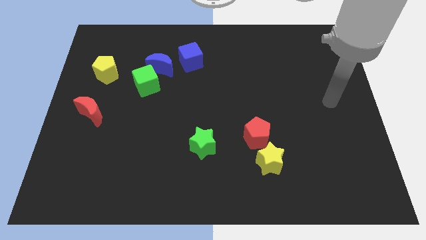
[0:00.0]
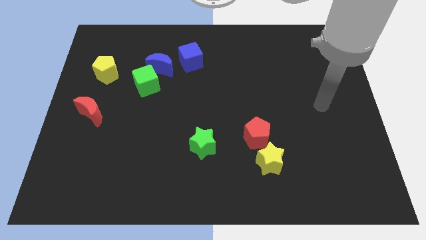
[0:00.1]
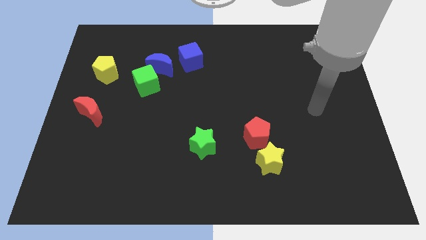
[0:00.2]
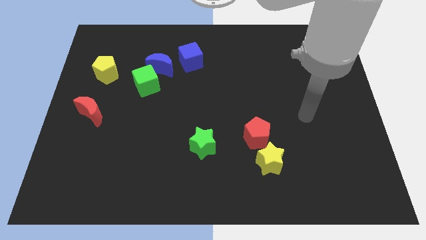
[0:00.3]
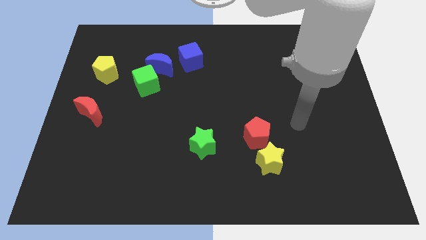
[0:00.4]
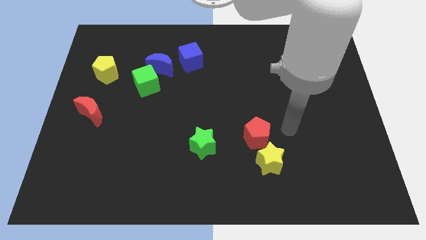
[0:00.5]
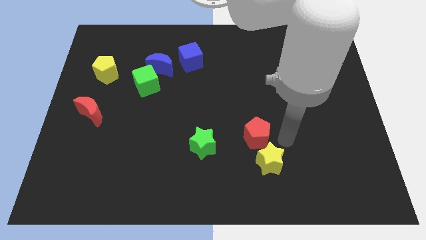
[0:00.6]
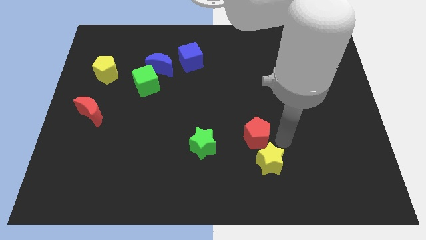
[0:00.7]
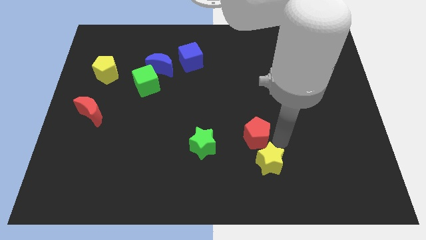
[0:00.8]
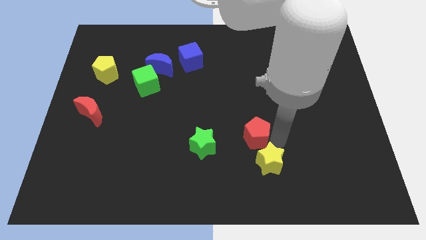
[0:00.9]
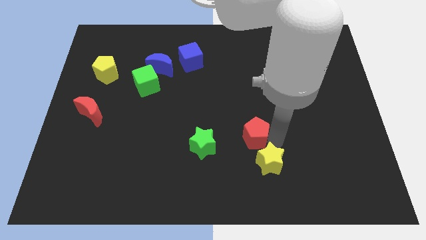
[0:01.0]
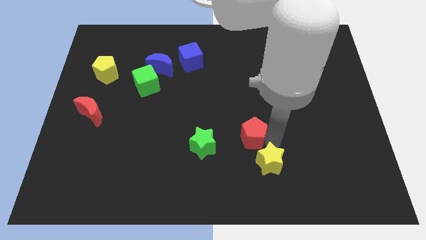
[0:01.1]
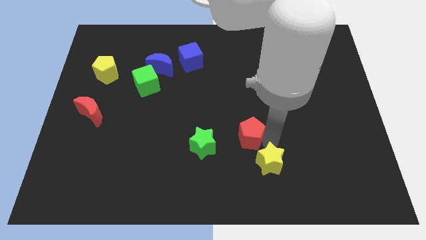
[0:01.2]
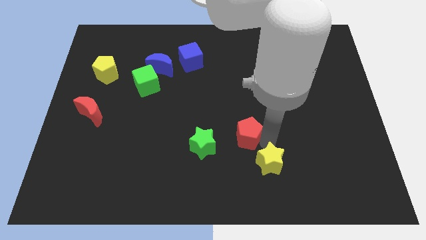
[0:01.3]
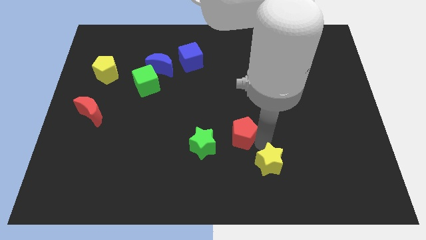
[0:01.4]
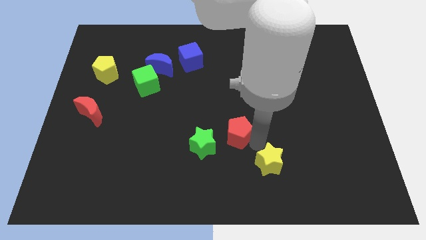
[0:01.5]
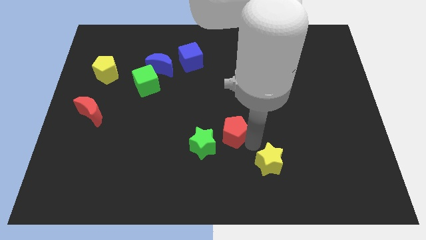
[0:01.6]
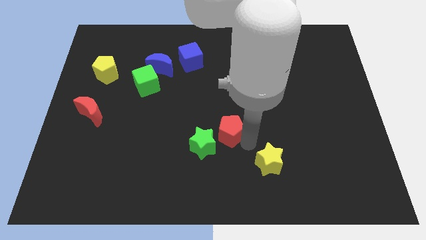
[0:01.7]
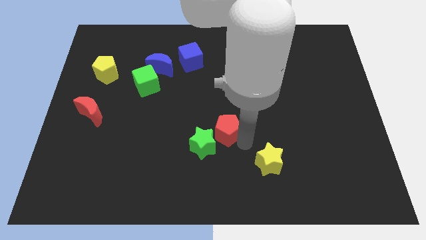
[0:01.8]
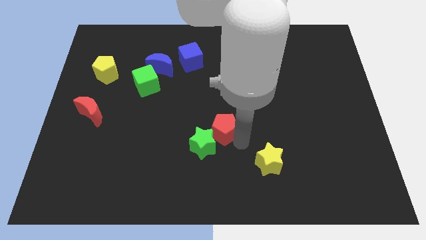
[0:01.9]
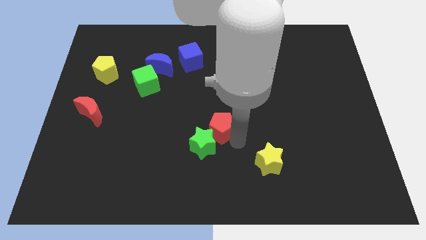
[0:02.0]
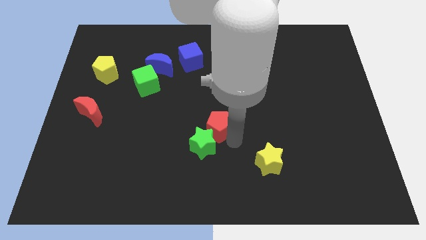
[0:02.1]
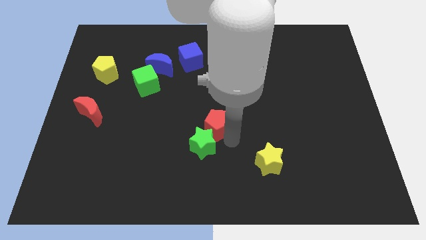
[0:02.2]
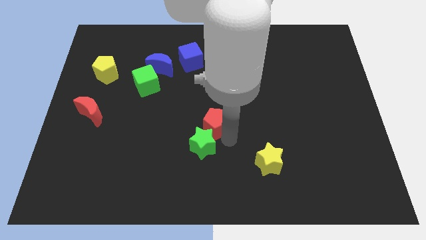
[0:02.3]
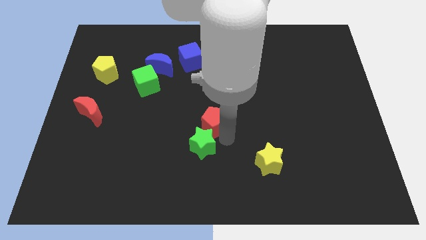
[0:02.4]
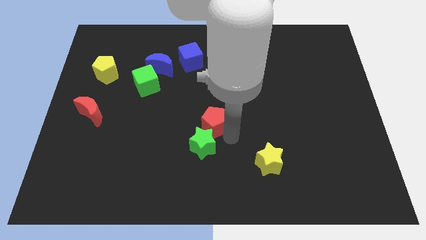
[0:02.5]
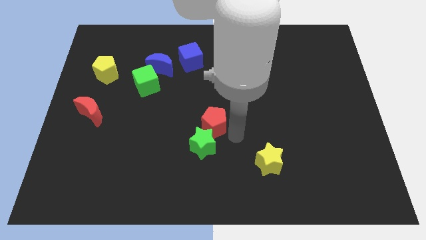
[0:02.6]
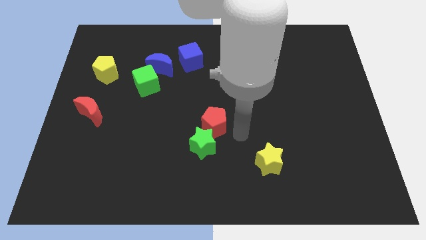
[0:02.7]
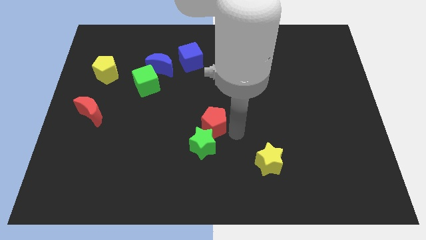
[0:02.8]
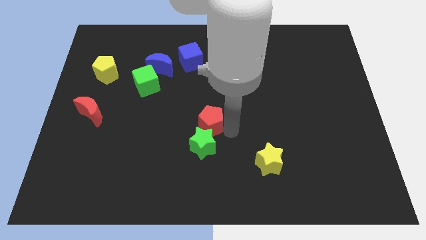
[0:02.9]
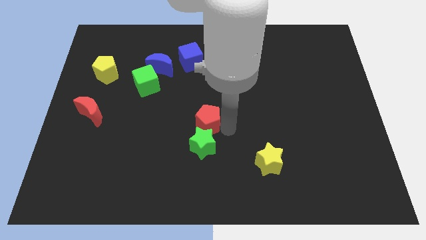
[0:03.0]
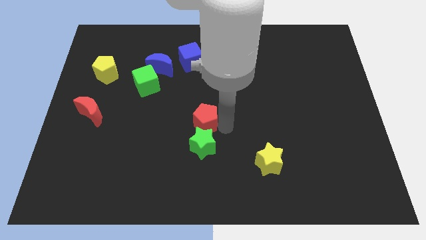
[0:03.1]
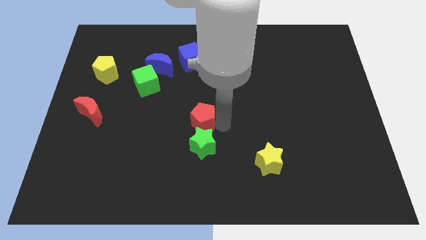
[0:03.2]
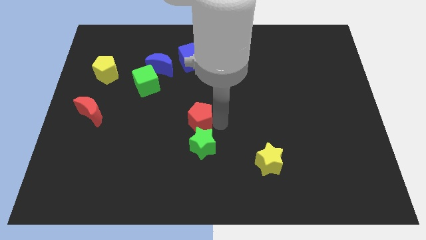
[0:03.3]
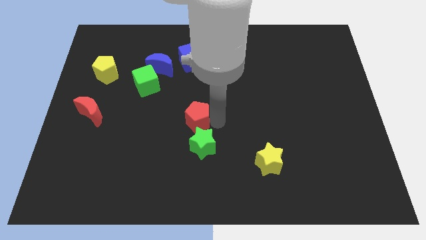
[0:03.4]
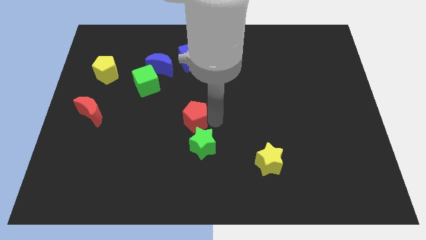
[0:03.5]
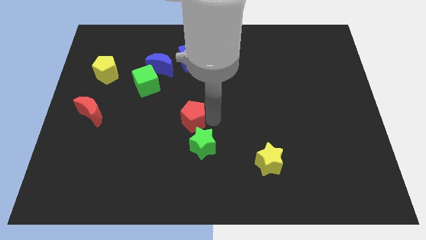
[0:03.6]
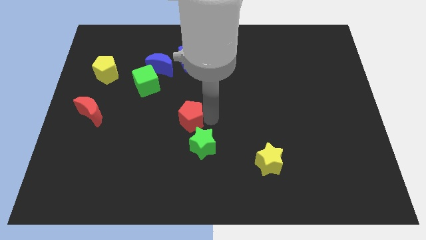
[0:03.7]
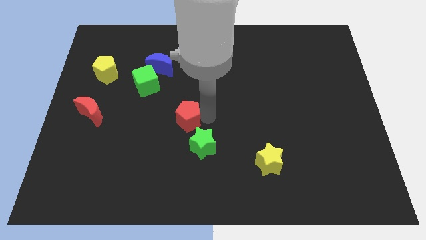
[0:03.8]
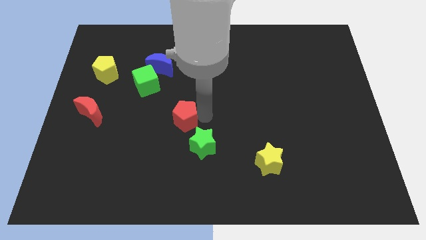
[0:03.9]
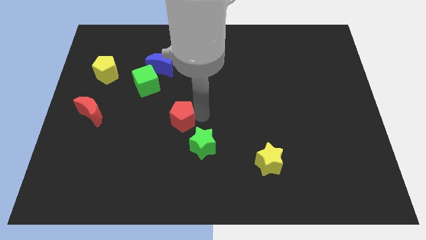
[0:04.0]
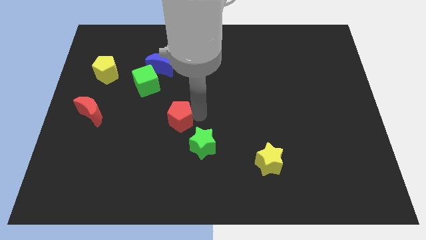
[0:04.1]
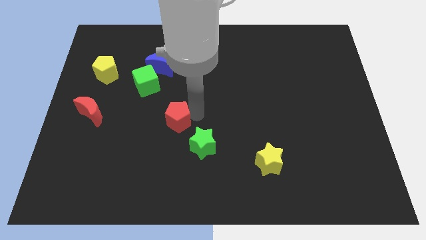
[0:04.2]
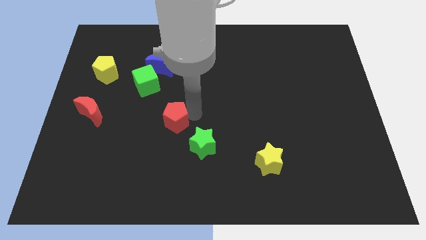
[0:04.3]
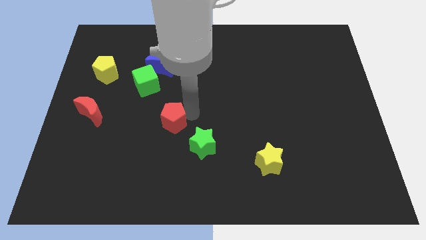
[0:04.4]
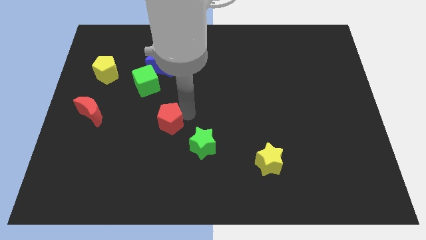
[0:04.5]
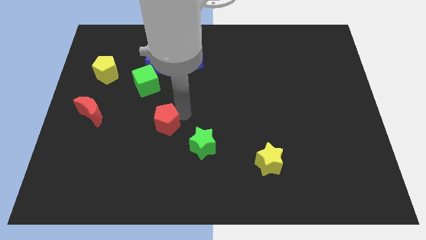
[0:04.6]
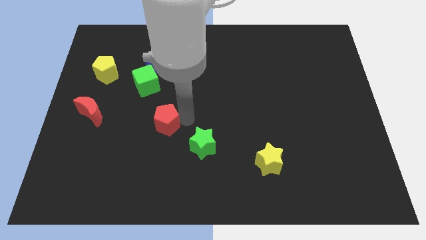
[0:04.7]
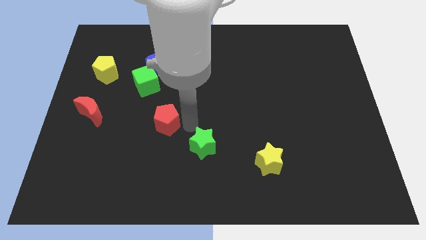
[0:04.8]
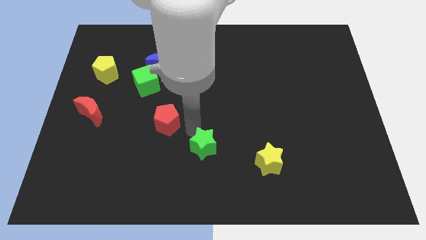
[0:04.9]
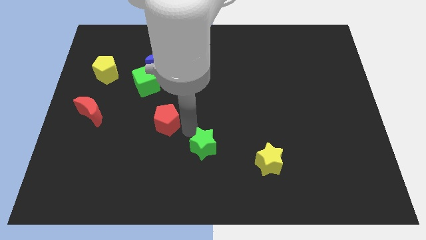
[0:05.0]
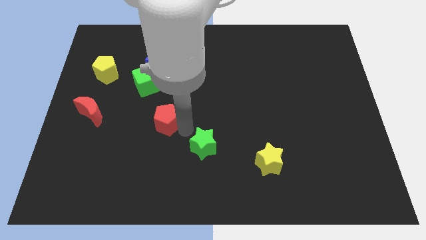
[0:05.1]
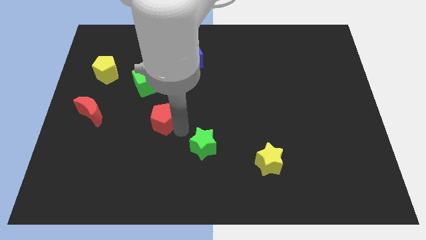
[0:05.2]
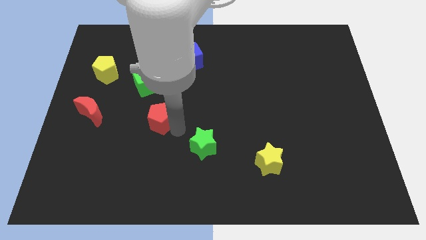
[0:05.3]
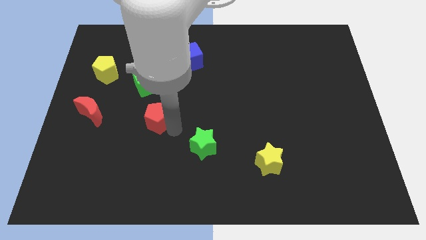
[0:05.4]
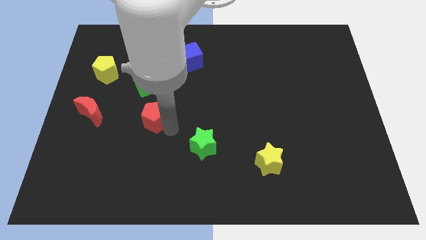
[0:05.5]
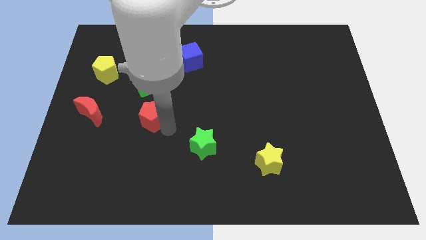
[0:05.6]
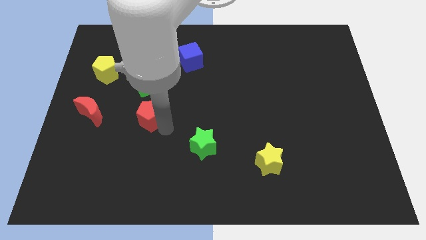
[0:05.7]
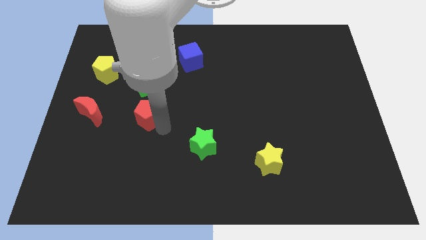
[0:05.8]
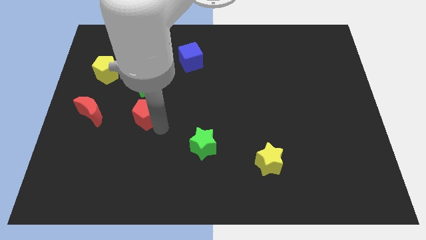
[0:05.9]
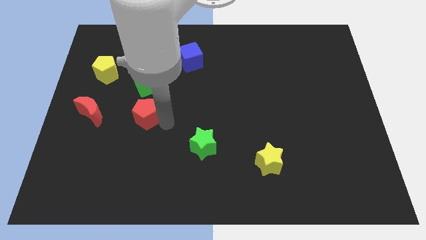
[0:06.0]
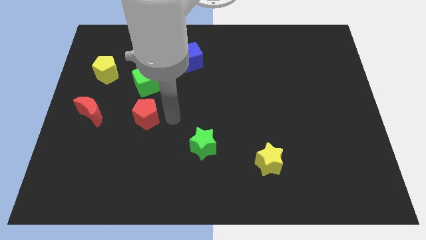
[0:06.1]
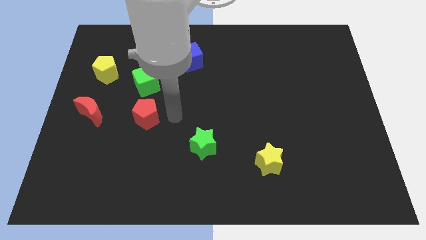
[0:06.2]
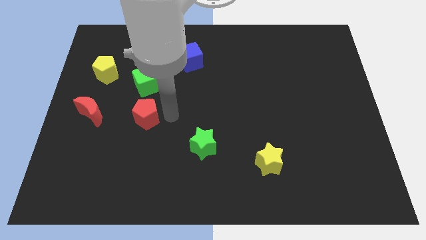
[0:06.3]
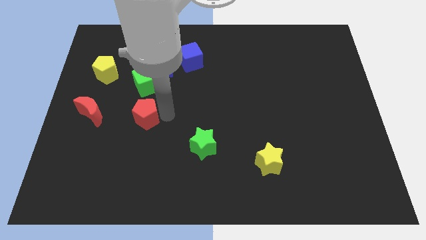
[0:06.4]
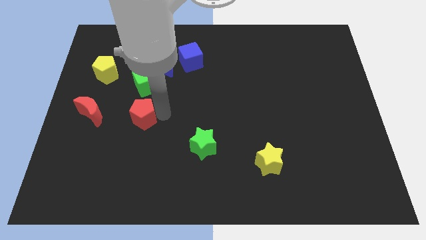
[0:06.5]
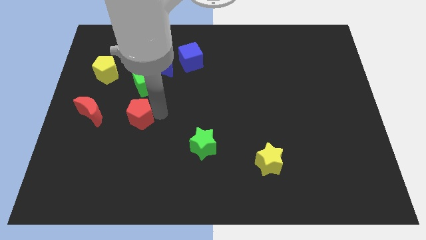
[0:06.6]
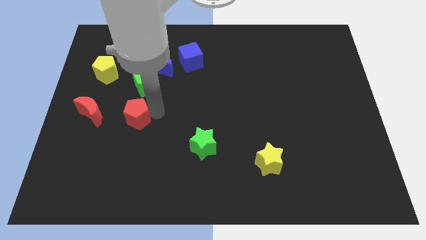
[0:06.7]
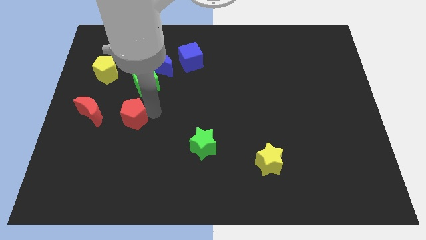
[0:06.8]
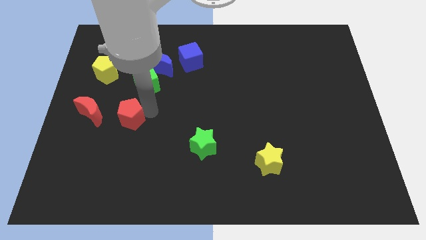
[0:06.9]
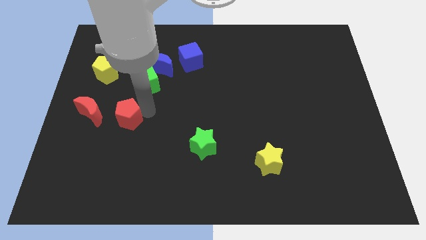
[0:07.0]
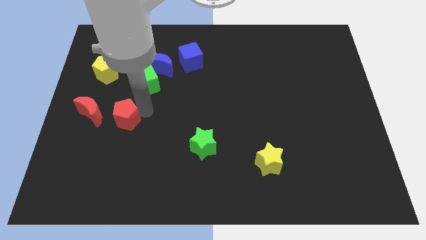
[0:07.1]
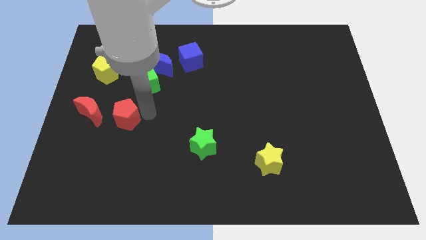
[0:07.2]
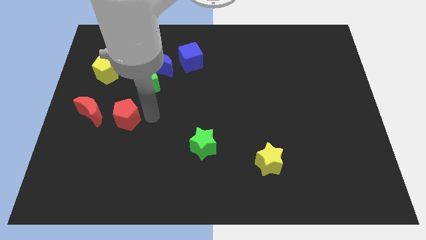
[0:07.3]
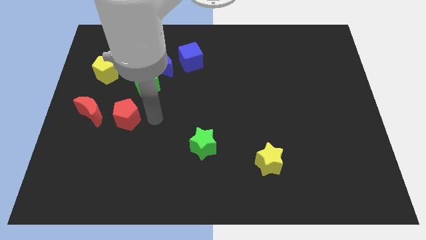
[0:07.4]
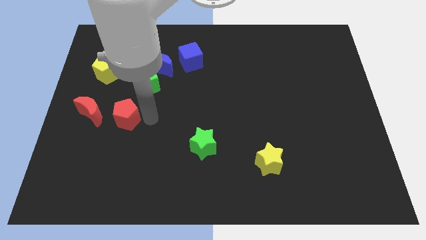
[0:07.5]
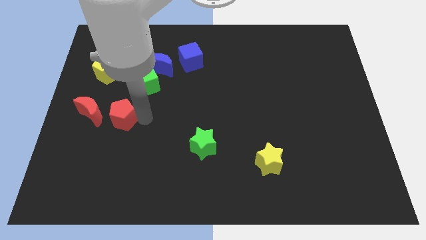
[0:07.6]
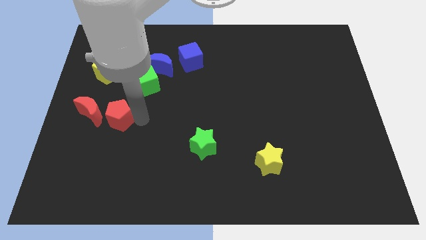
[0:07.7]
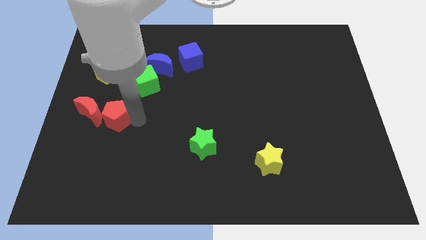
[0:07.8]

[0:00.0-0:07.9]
move the red pentagon close to the red moon
